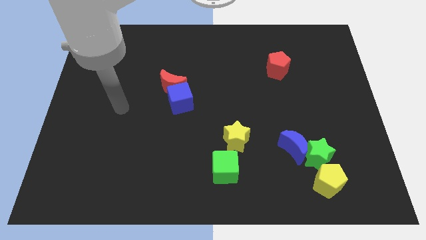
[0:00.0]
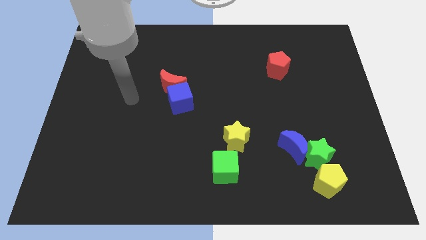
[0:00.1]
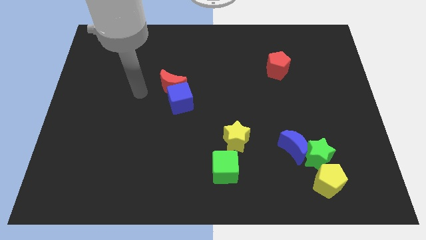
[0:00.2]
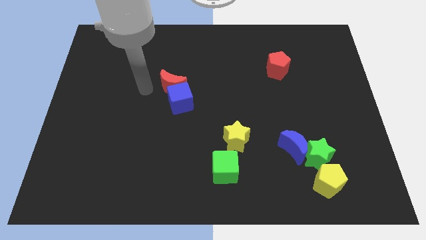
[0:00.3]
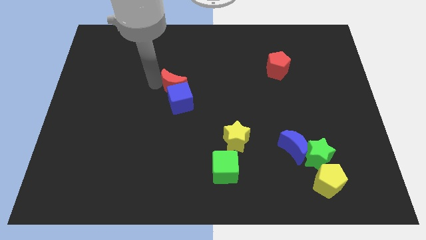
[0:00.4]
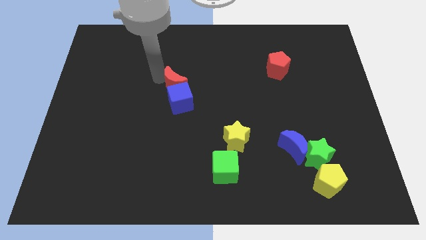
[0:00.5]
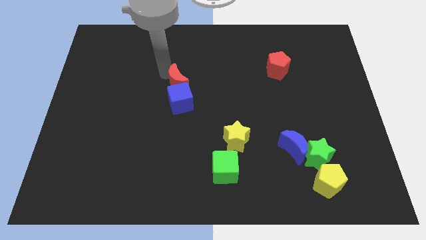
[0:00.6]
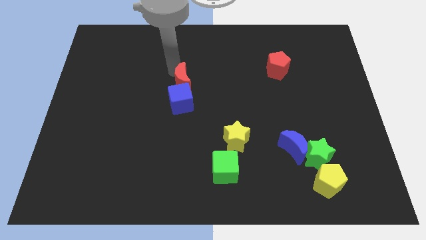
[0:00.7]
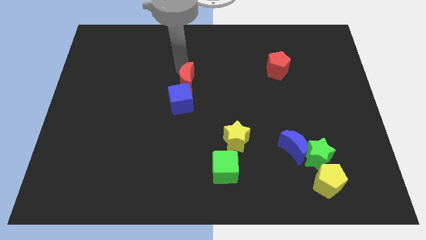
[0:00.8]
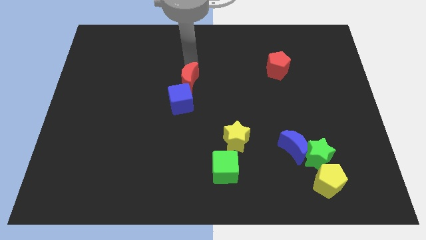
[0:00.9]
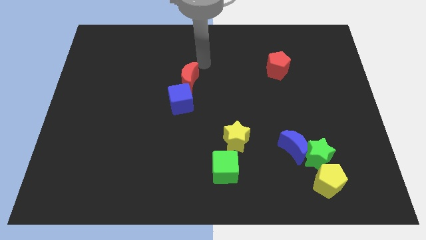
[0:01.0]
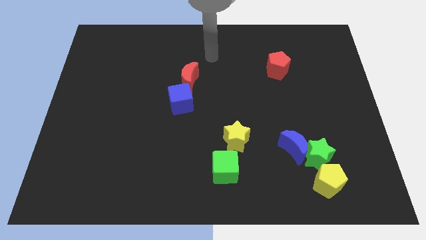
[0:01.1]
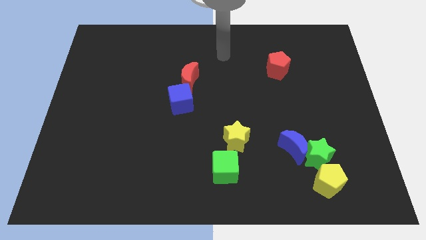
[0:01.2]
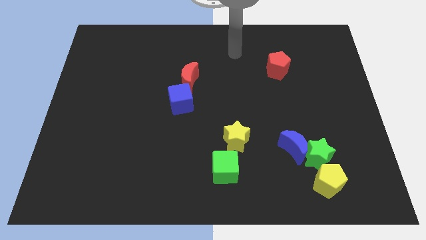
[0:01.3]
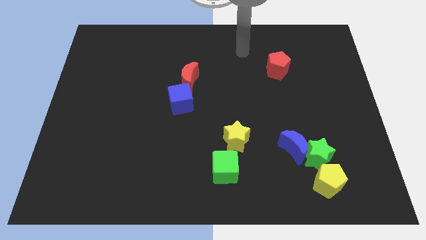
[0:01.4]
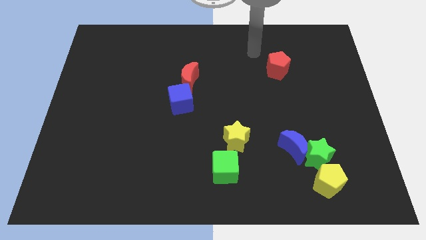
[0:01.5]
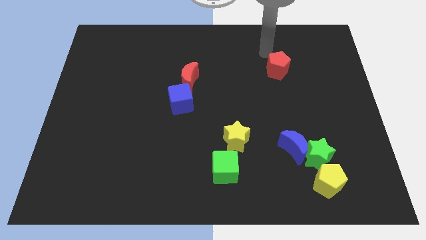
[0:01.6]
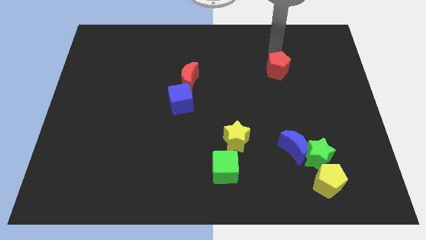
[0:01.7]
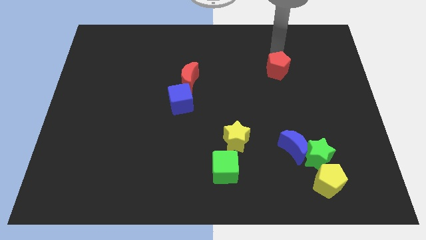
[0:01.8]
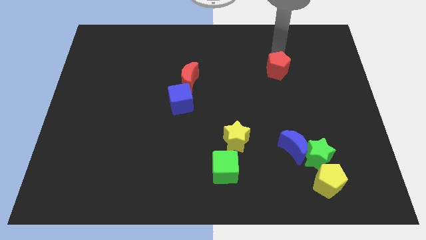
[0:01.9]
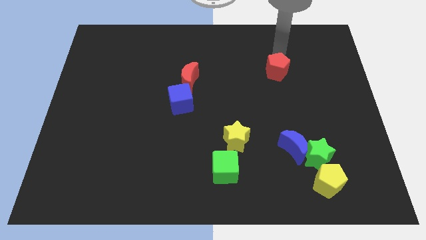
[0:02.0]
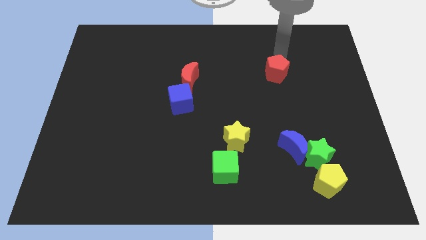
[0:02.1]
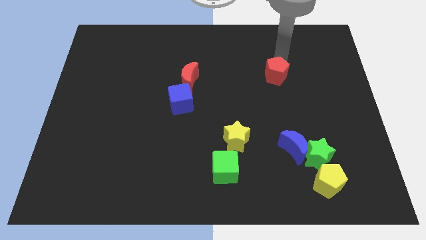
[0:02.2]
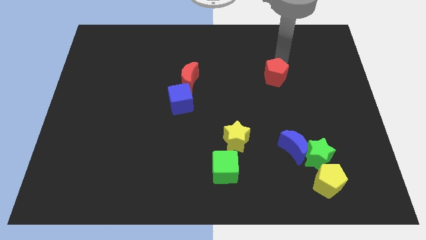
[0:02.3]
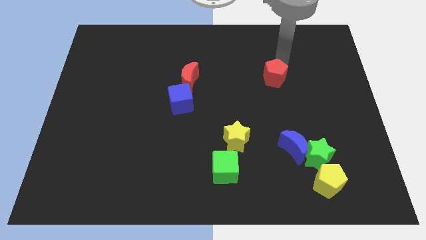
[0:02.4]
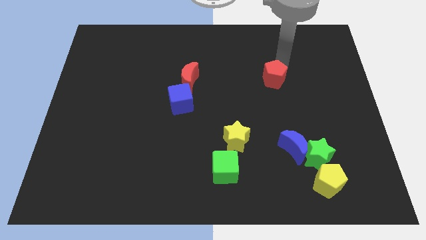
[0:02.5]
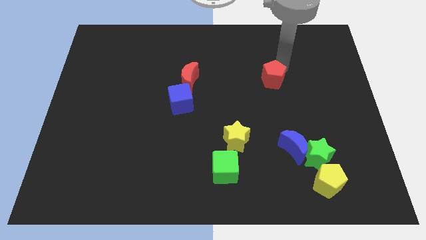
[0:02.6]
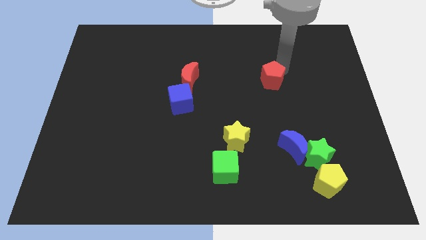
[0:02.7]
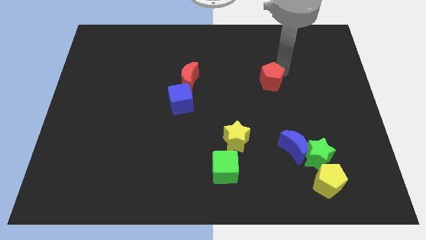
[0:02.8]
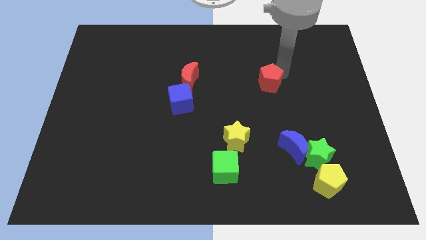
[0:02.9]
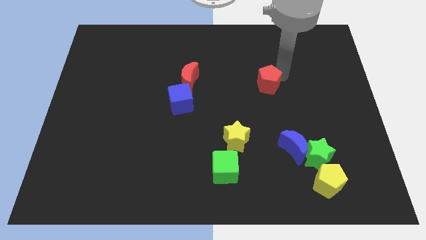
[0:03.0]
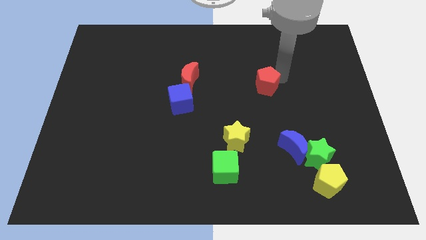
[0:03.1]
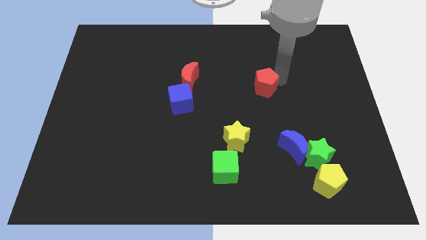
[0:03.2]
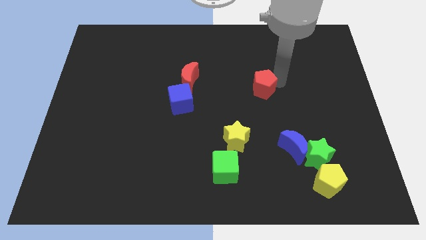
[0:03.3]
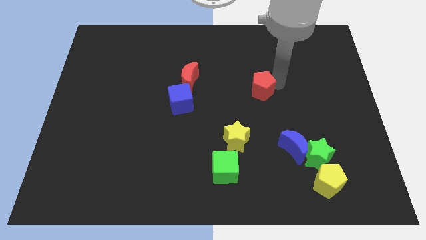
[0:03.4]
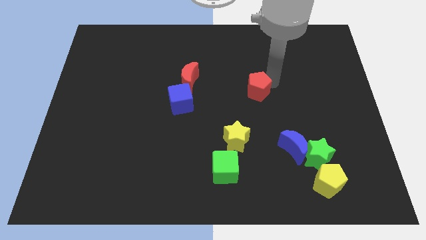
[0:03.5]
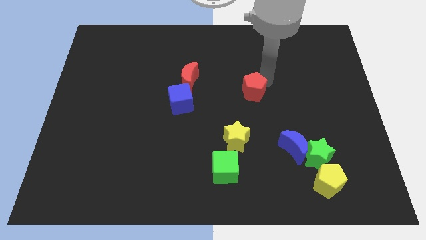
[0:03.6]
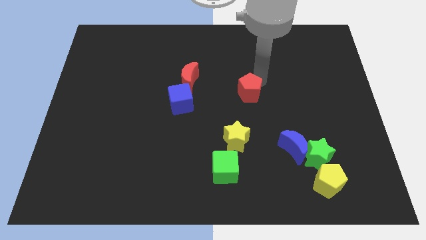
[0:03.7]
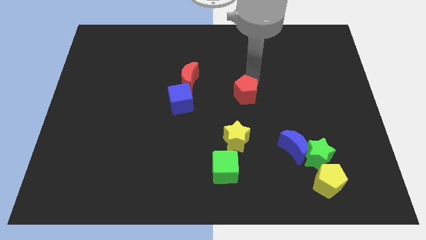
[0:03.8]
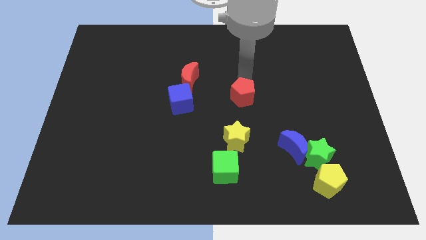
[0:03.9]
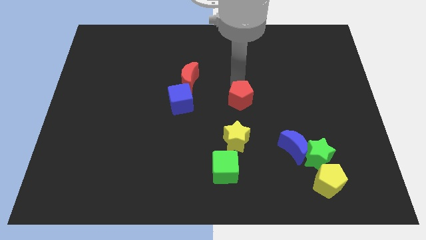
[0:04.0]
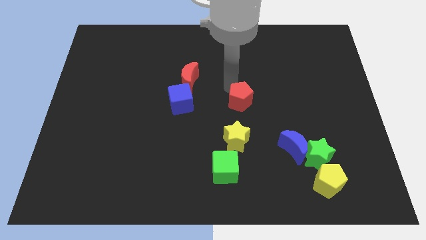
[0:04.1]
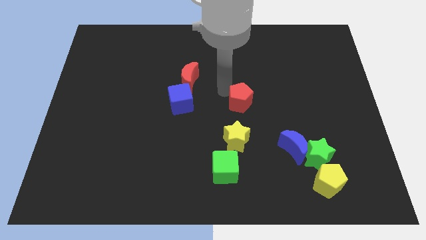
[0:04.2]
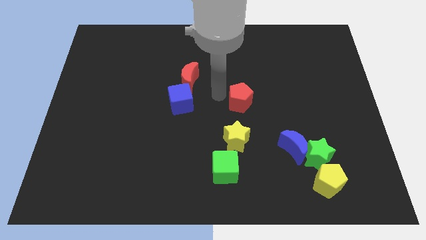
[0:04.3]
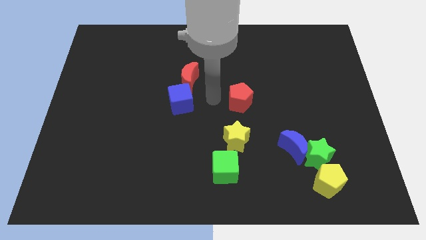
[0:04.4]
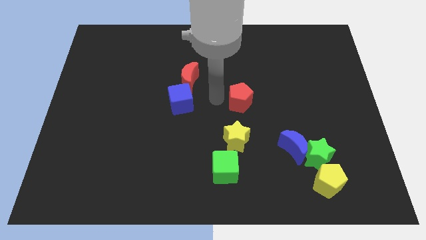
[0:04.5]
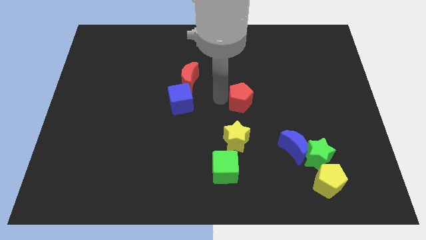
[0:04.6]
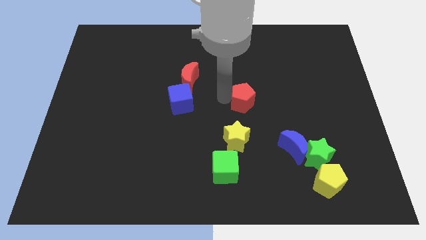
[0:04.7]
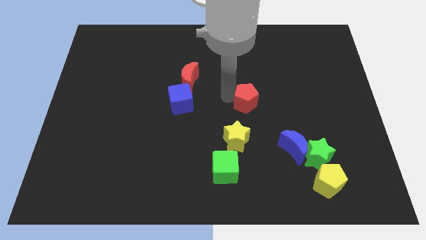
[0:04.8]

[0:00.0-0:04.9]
push the red pentagon downwards somewhat

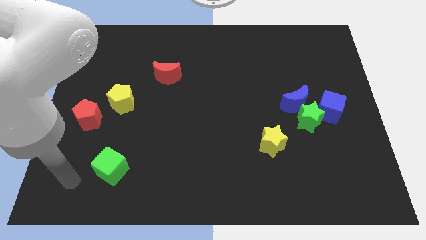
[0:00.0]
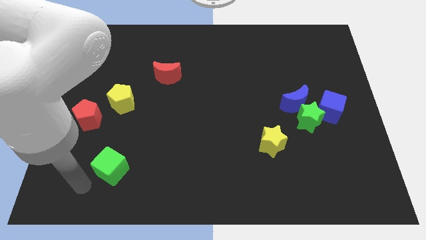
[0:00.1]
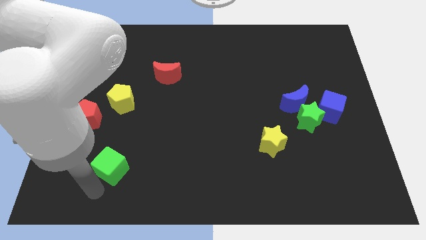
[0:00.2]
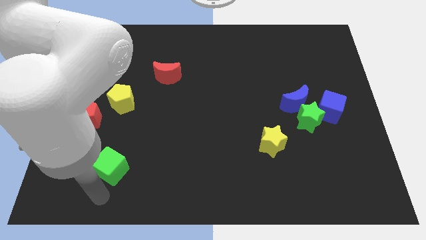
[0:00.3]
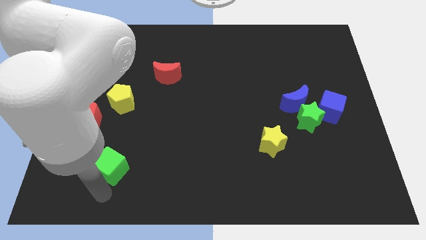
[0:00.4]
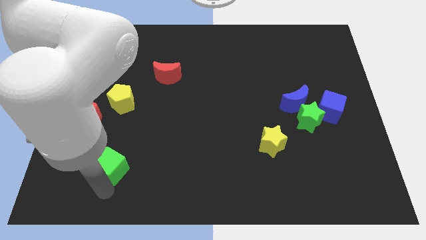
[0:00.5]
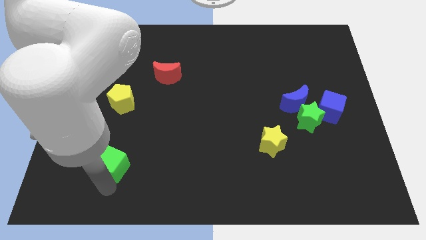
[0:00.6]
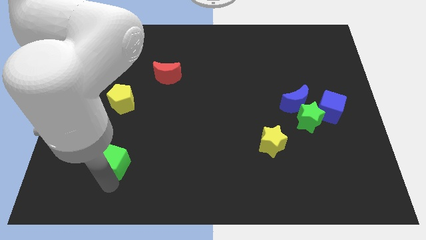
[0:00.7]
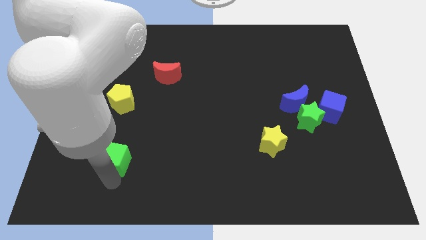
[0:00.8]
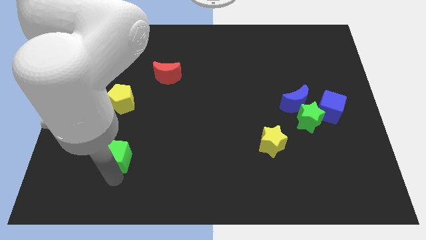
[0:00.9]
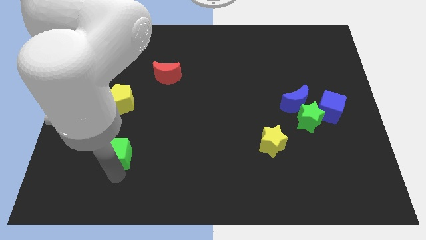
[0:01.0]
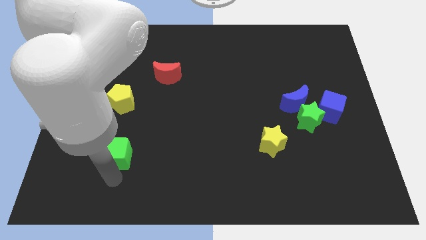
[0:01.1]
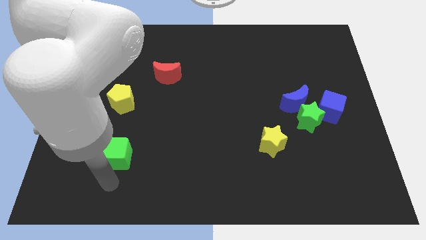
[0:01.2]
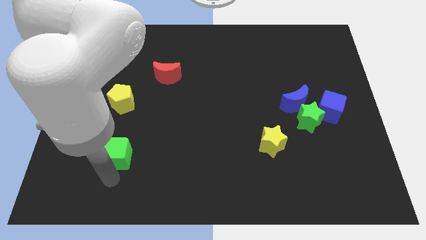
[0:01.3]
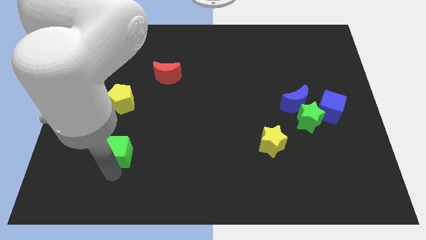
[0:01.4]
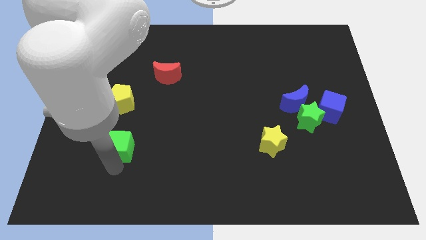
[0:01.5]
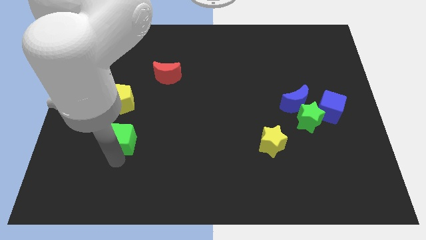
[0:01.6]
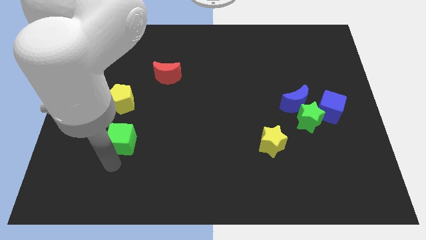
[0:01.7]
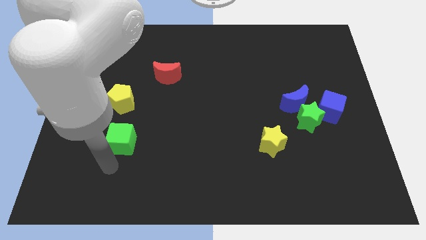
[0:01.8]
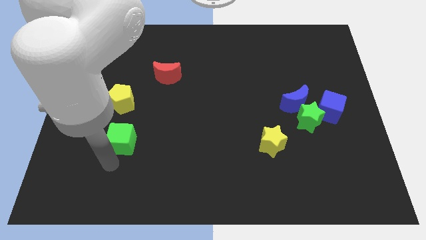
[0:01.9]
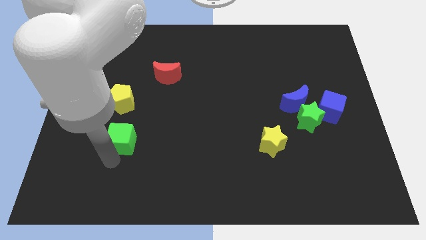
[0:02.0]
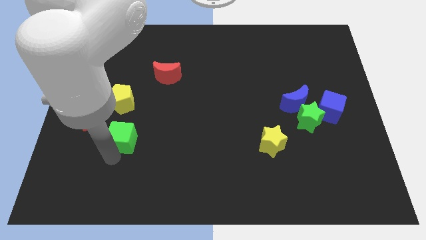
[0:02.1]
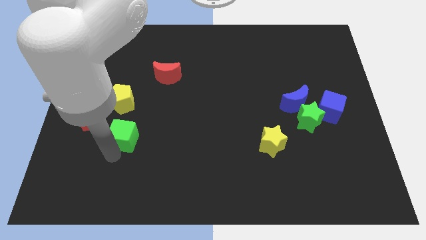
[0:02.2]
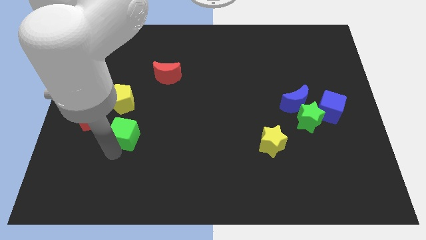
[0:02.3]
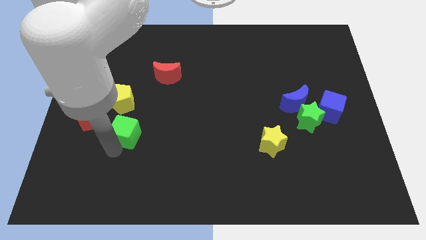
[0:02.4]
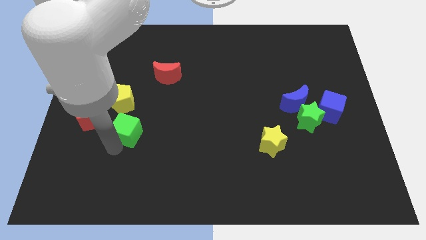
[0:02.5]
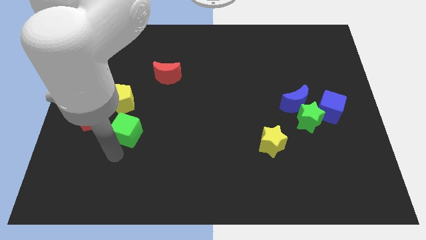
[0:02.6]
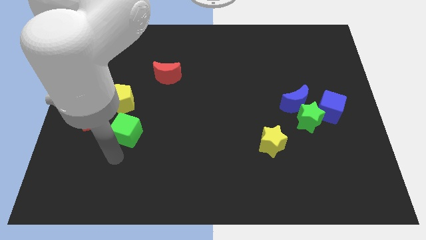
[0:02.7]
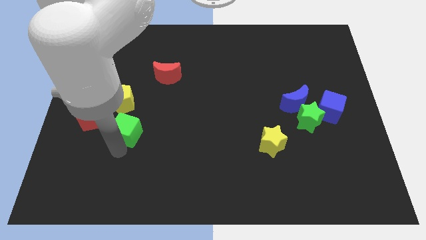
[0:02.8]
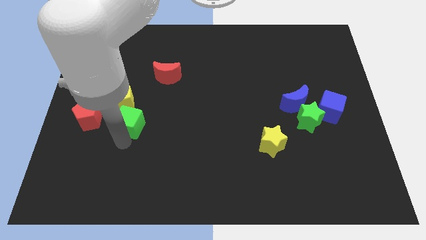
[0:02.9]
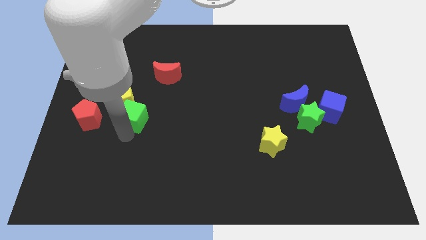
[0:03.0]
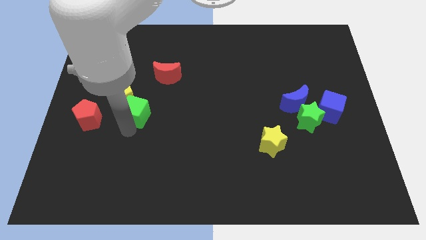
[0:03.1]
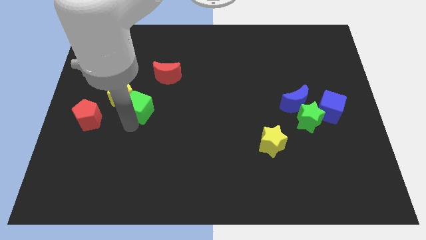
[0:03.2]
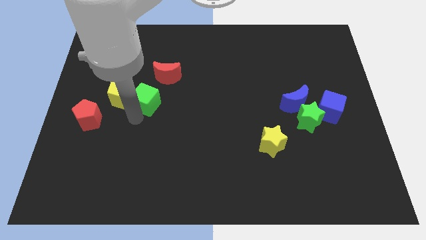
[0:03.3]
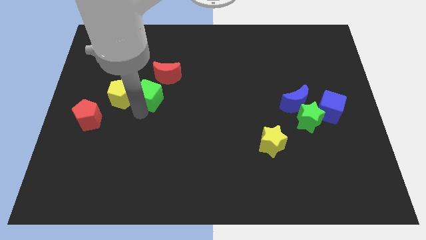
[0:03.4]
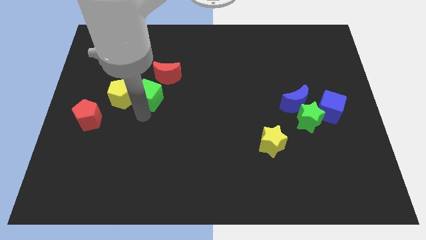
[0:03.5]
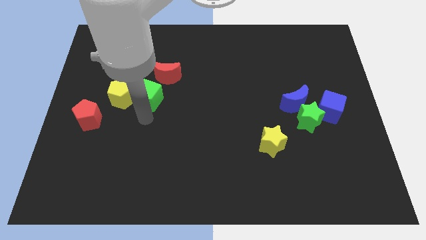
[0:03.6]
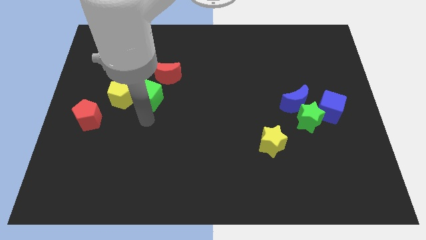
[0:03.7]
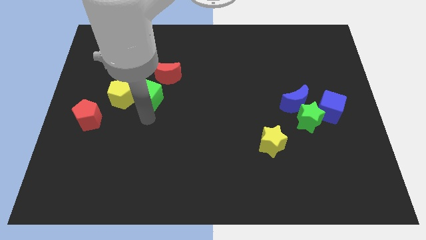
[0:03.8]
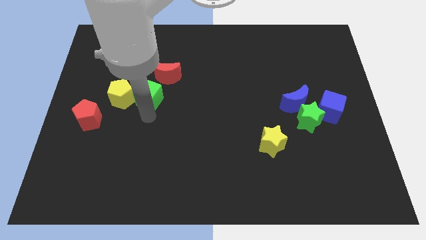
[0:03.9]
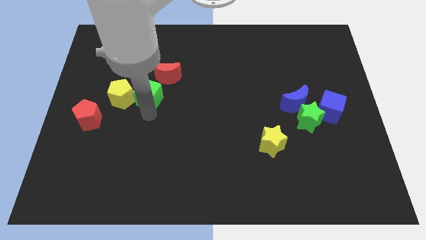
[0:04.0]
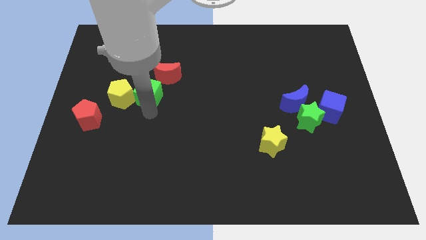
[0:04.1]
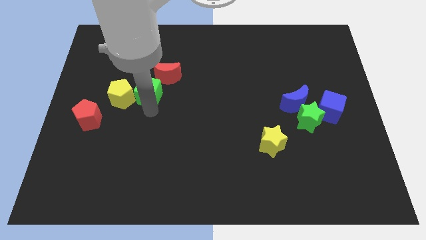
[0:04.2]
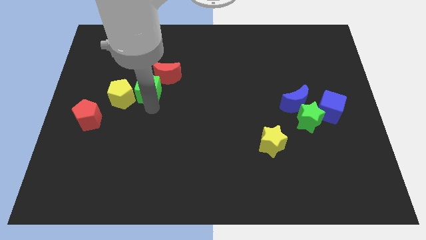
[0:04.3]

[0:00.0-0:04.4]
move the green cube upwards
